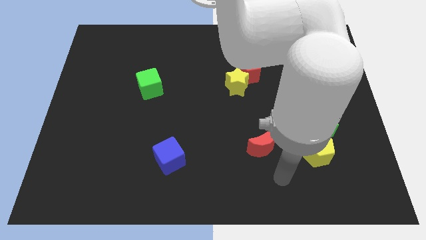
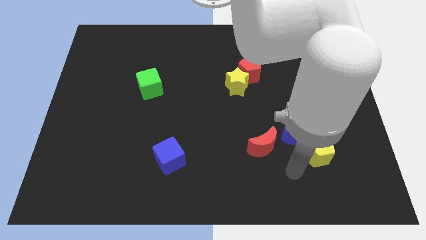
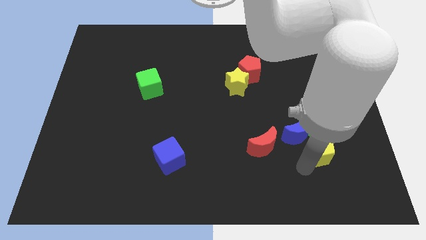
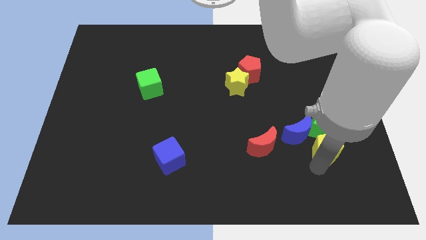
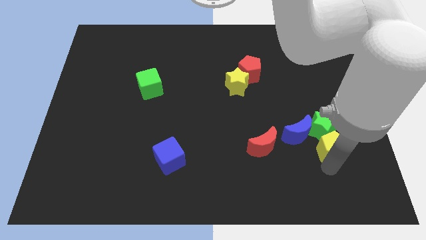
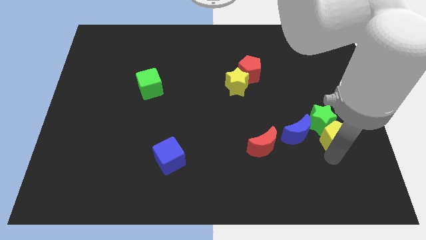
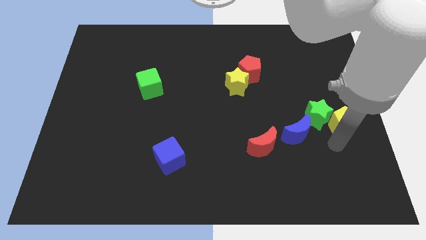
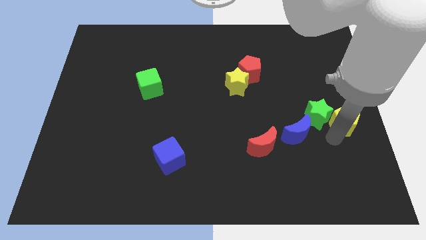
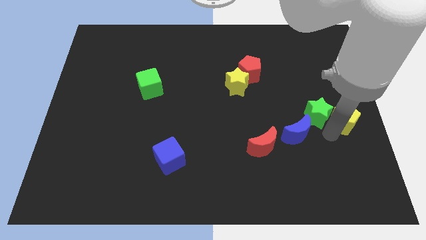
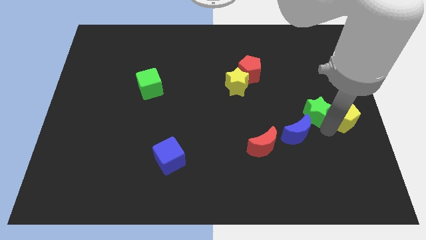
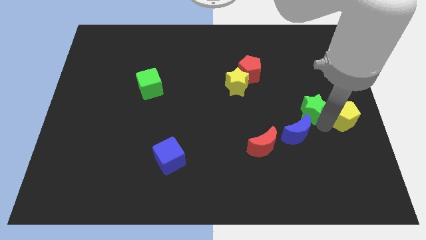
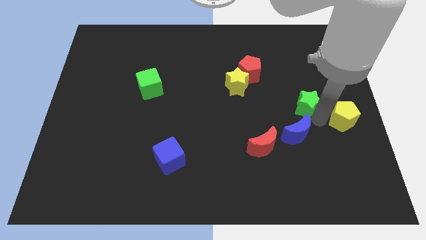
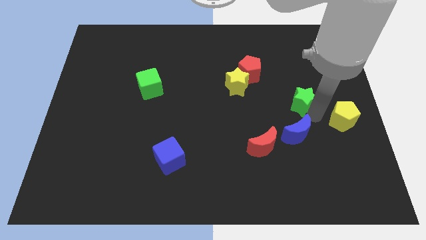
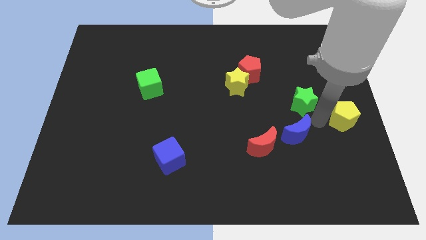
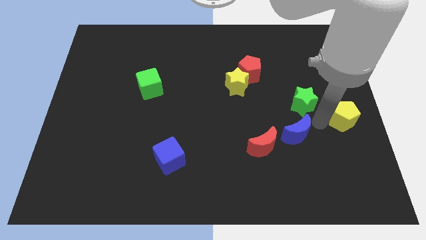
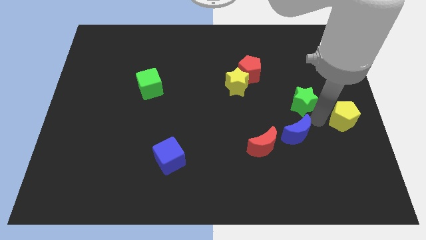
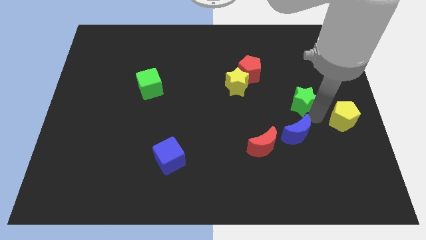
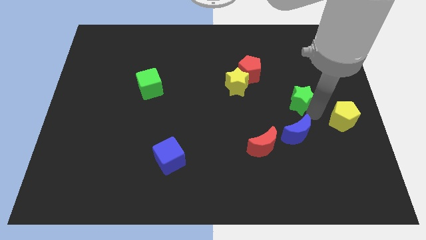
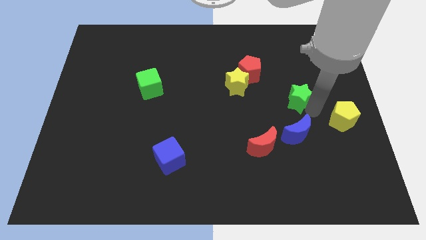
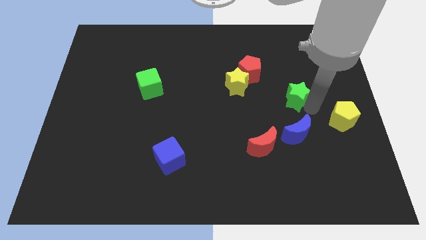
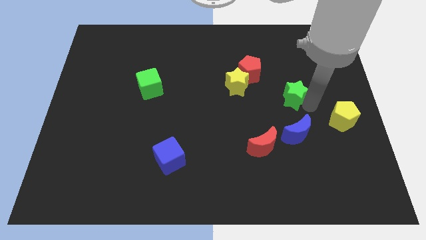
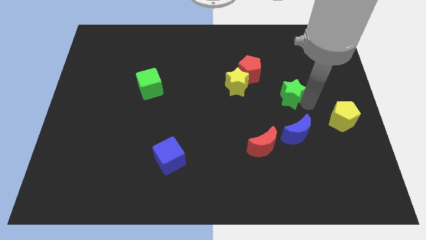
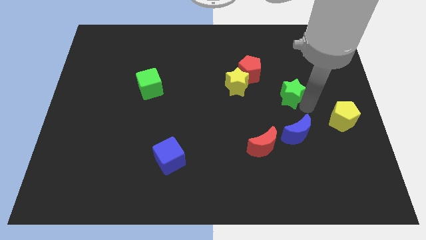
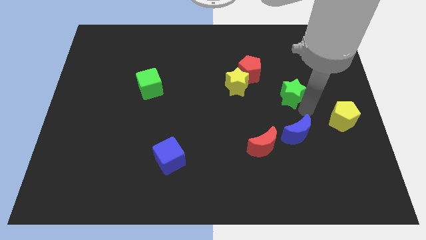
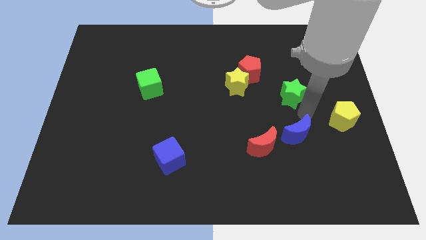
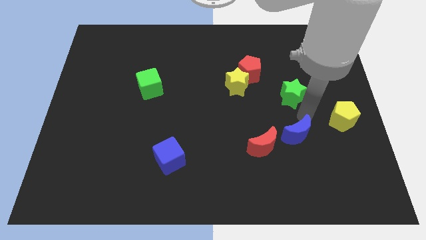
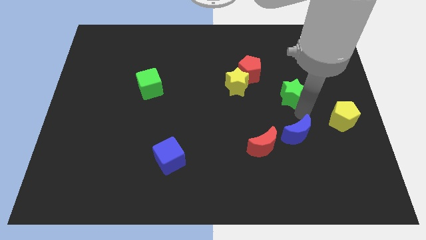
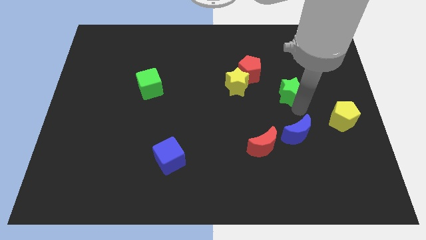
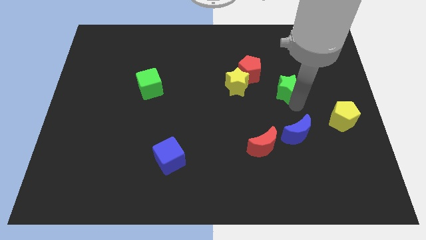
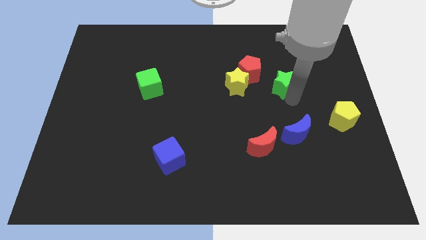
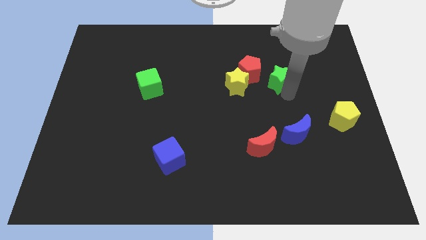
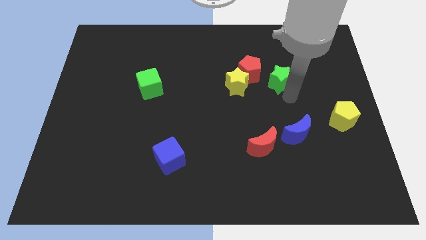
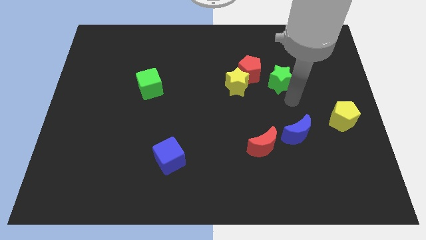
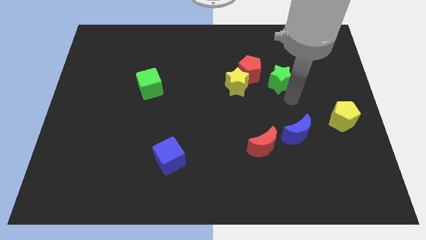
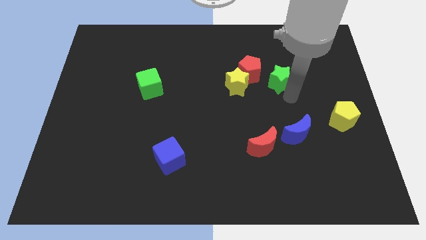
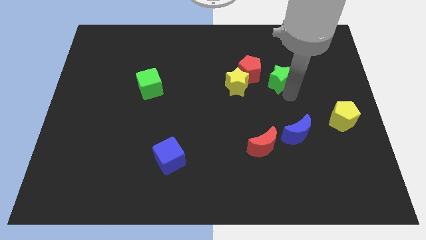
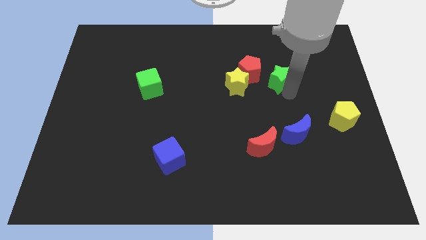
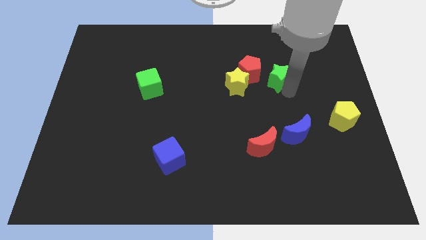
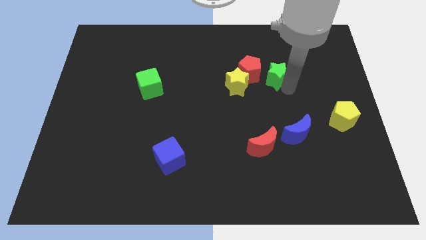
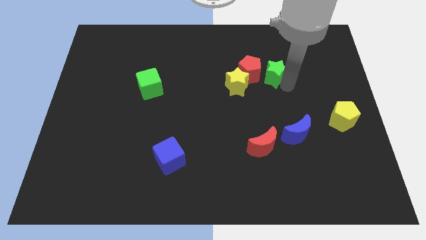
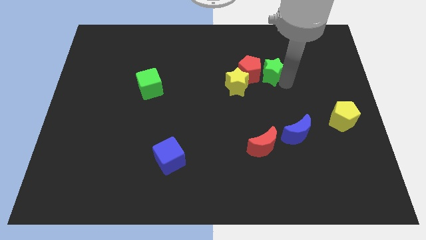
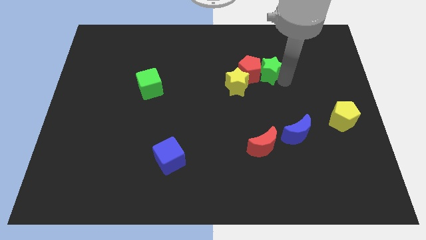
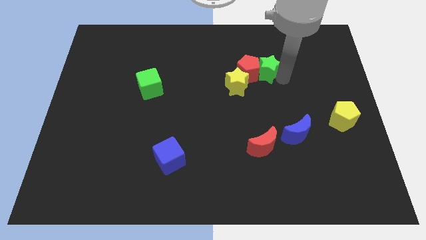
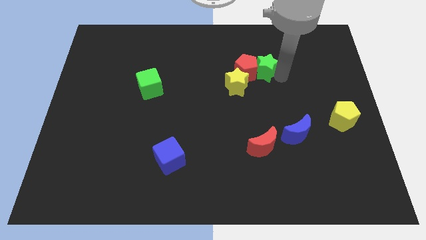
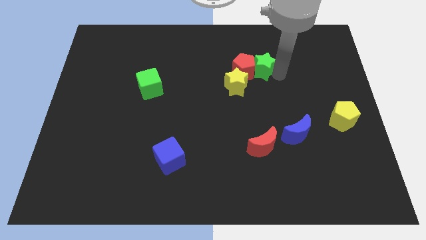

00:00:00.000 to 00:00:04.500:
move the green star upwards and then left

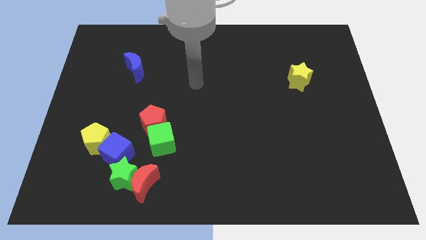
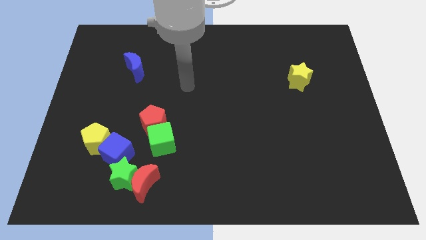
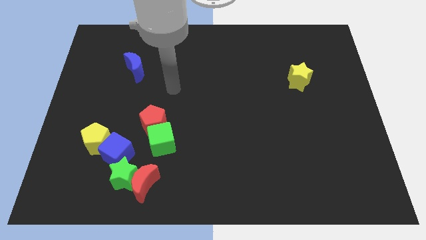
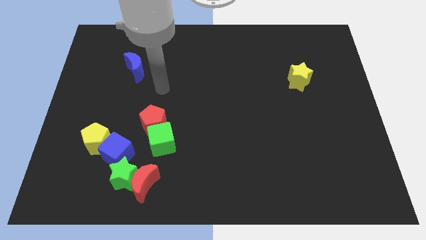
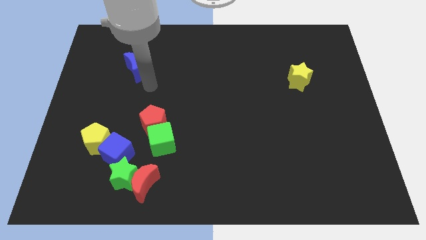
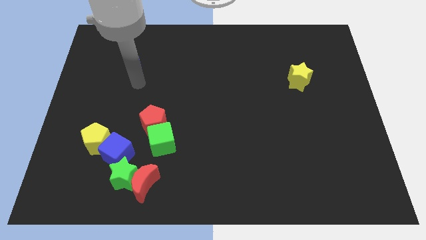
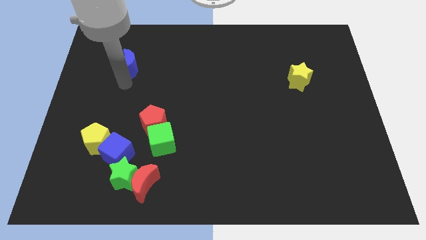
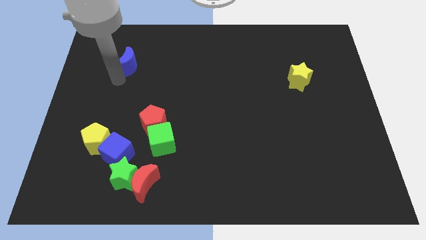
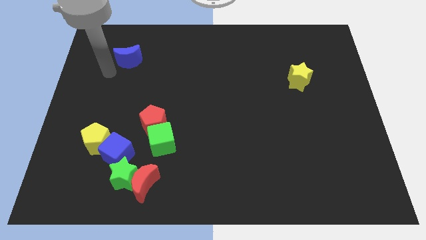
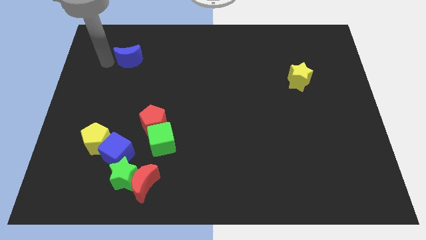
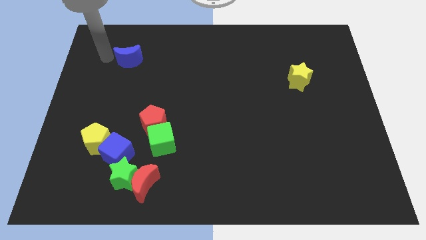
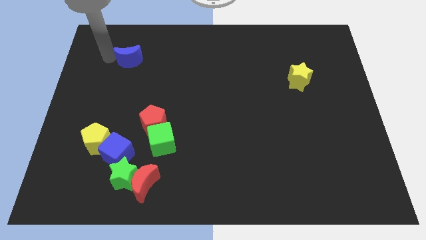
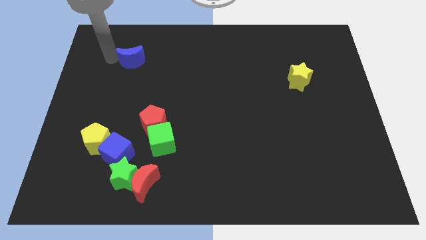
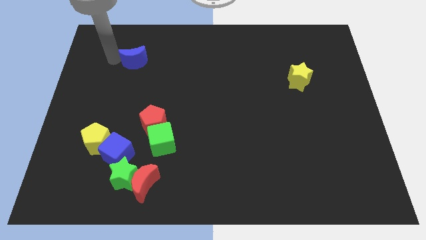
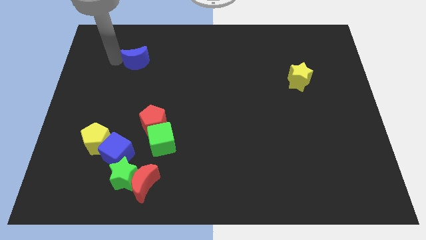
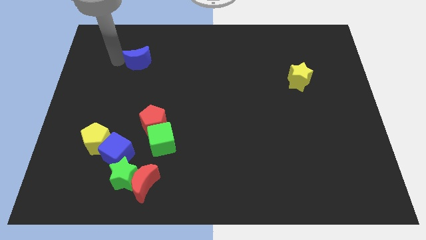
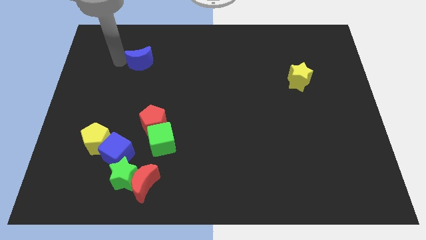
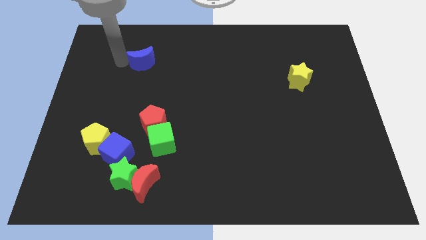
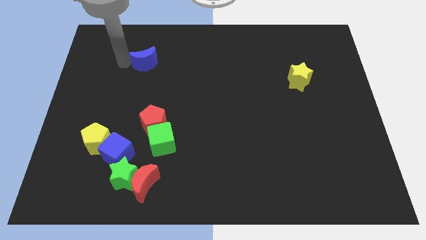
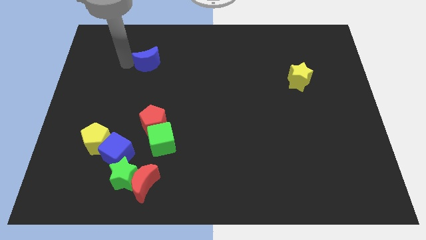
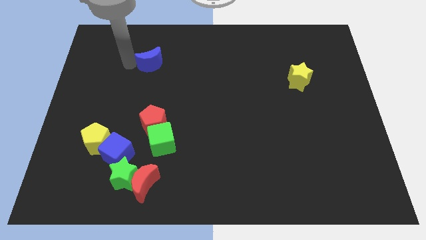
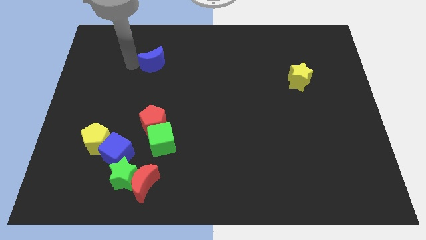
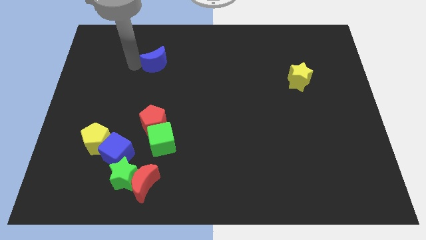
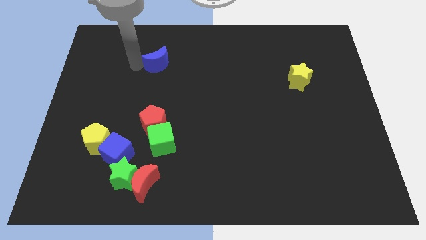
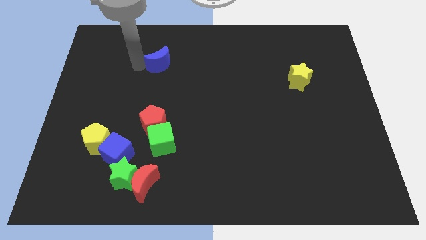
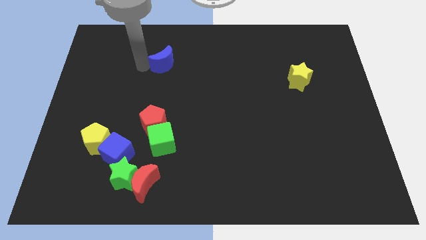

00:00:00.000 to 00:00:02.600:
slide the blue moon to the right slightly

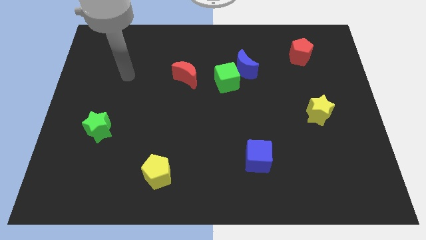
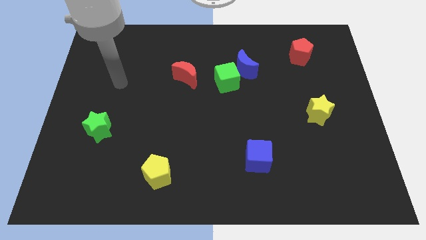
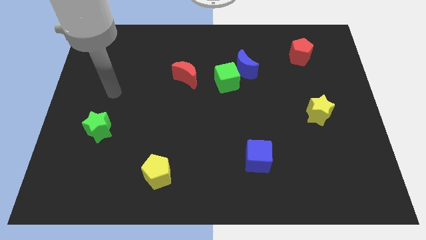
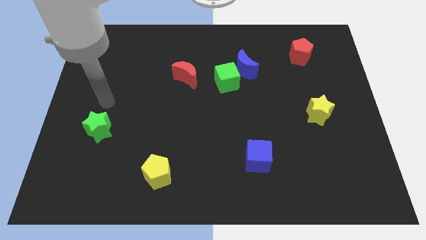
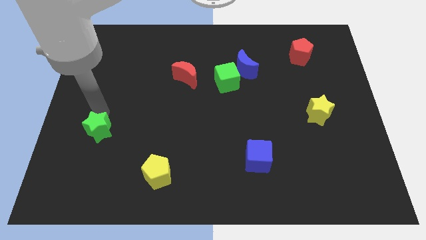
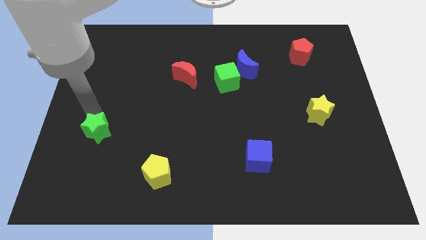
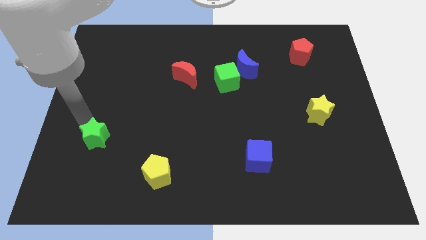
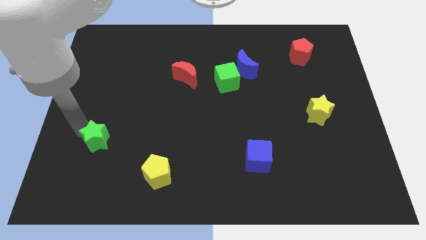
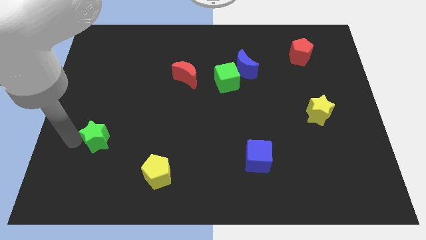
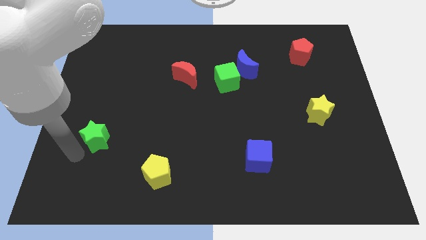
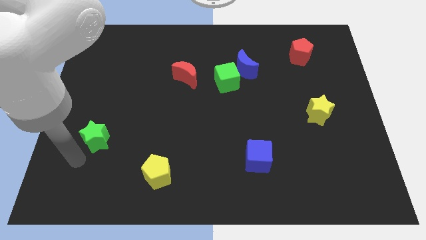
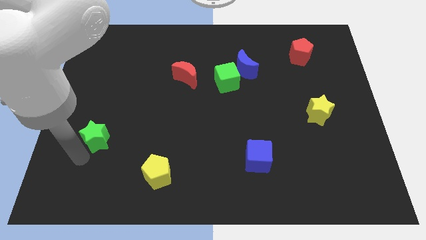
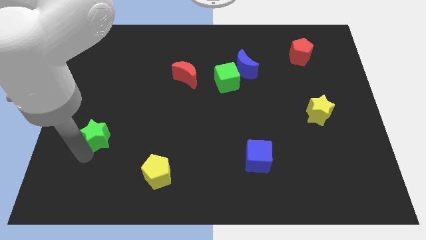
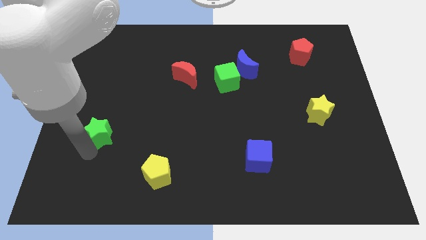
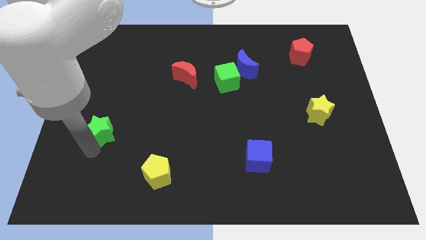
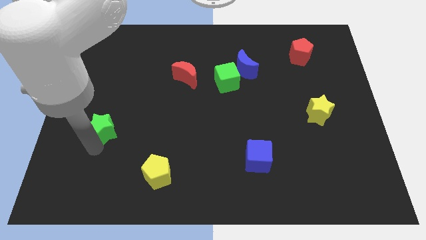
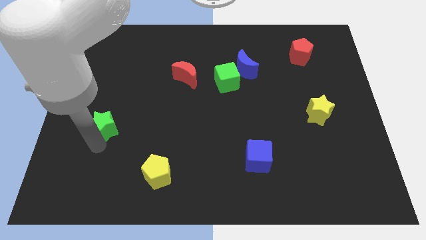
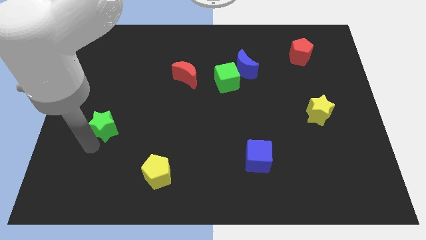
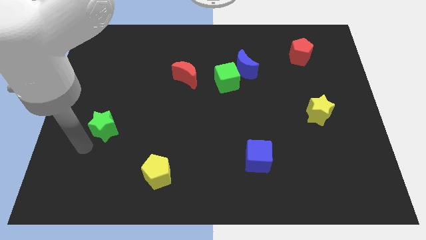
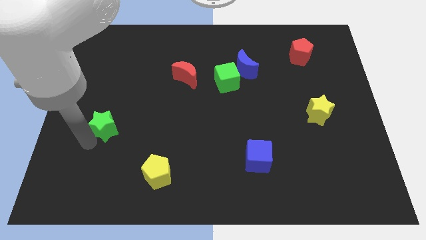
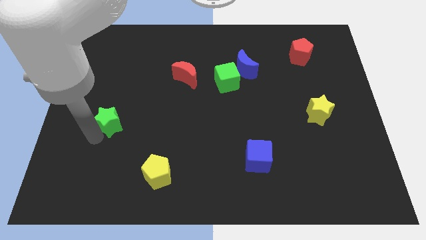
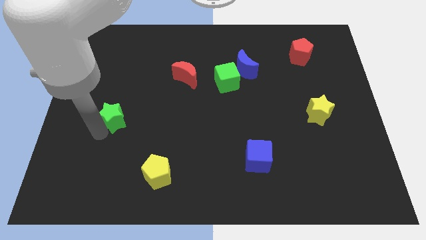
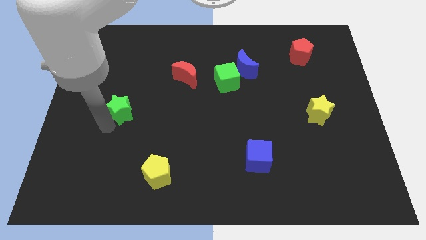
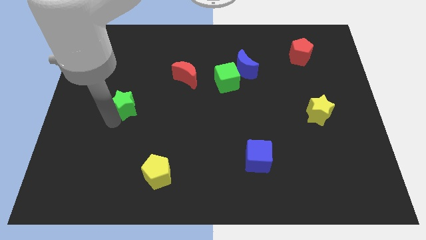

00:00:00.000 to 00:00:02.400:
move the green star up and then right slightly
